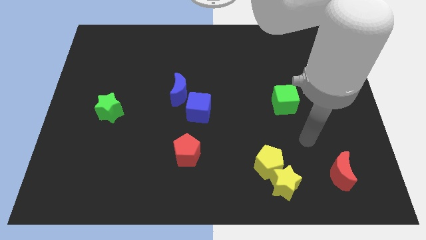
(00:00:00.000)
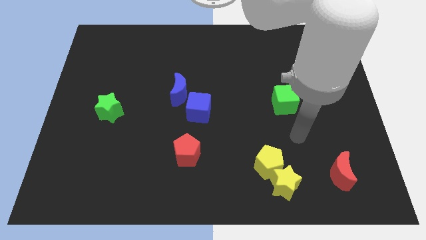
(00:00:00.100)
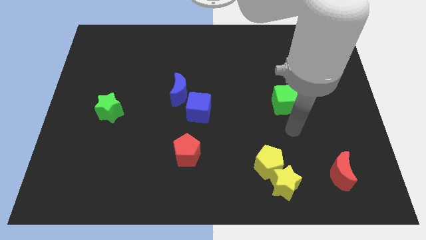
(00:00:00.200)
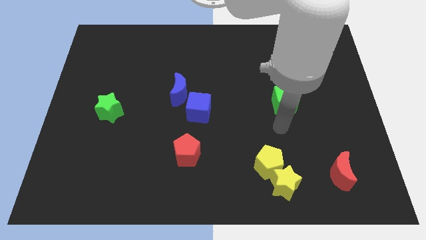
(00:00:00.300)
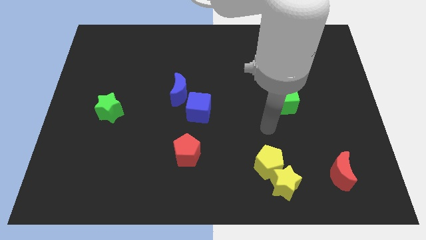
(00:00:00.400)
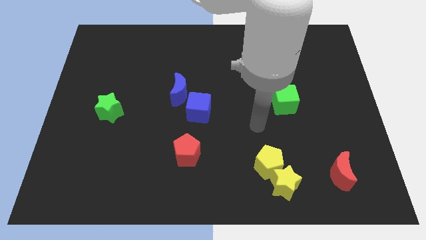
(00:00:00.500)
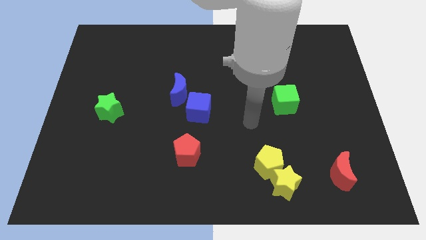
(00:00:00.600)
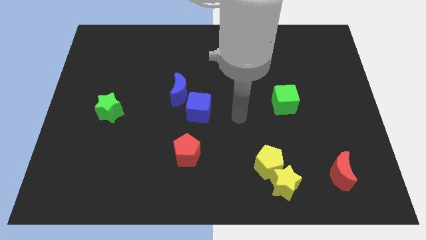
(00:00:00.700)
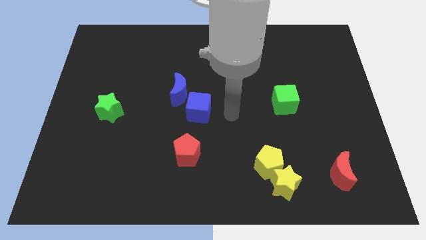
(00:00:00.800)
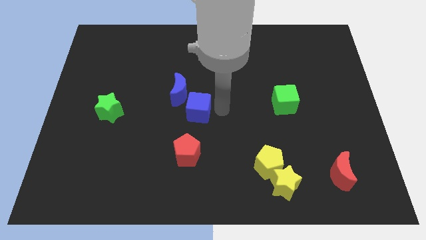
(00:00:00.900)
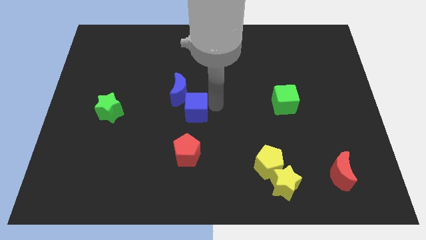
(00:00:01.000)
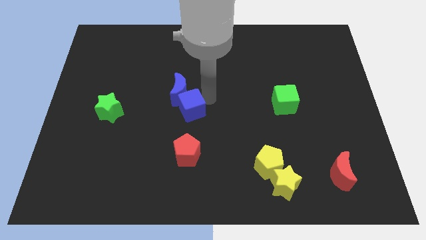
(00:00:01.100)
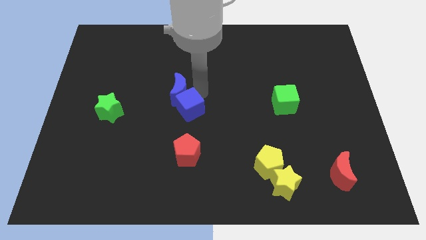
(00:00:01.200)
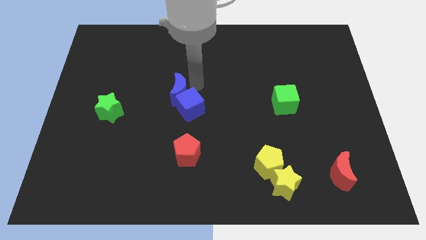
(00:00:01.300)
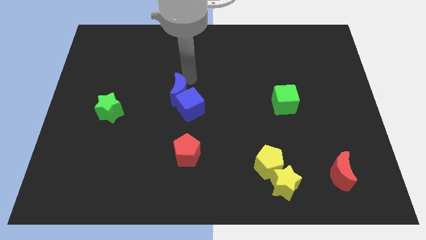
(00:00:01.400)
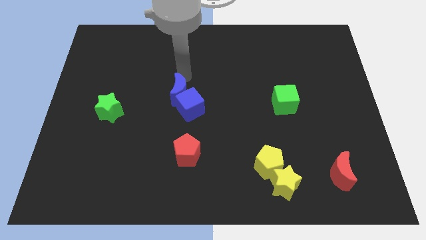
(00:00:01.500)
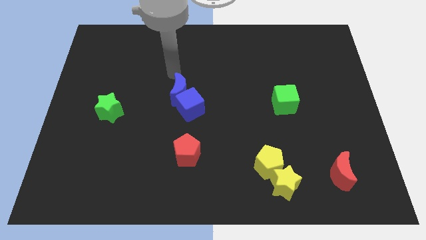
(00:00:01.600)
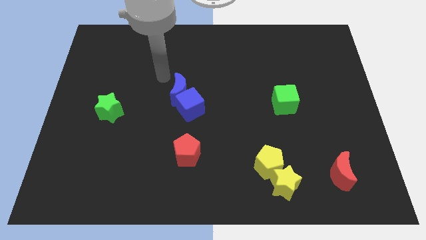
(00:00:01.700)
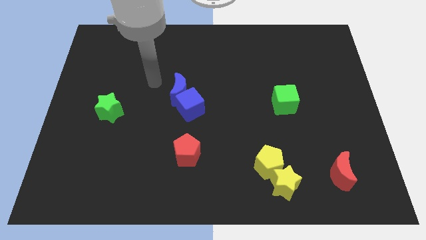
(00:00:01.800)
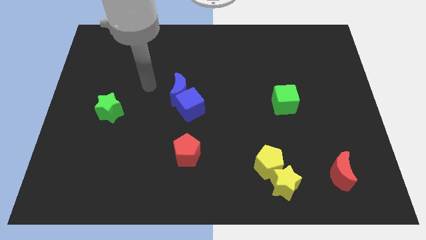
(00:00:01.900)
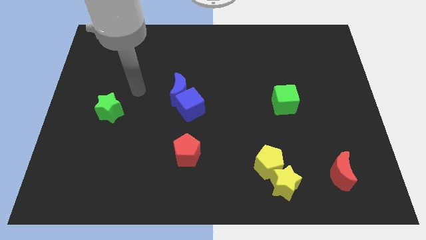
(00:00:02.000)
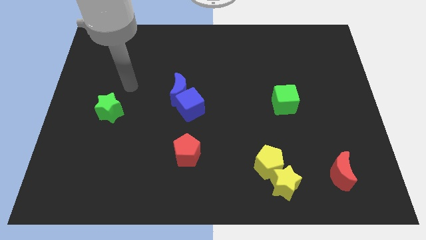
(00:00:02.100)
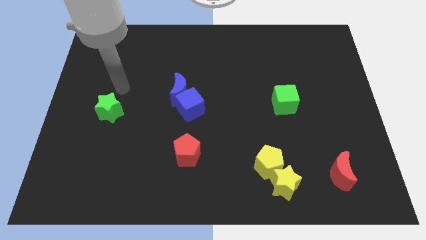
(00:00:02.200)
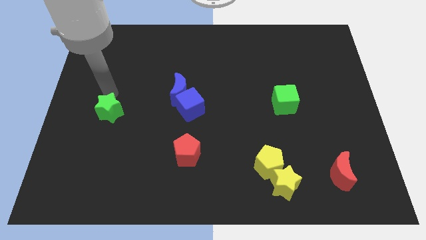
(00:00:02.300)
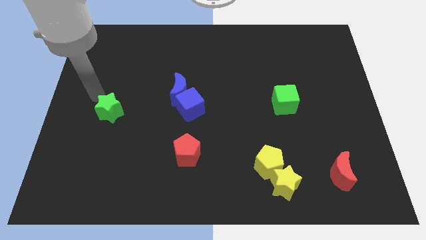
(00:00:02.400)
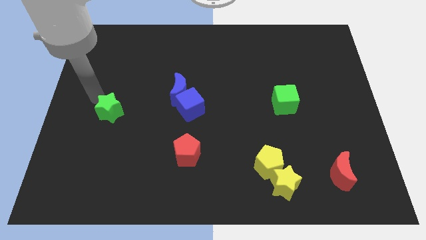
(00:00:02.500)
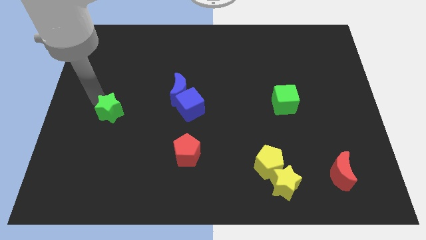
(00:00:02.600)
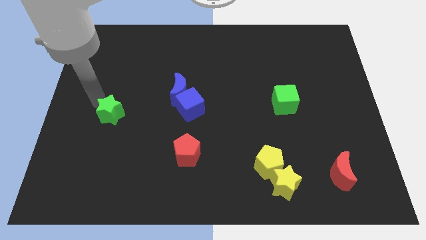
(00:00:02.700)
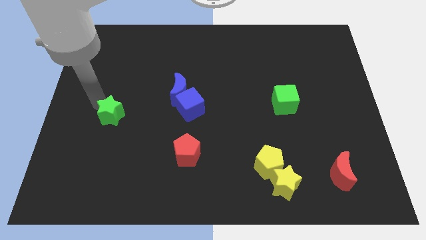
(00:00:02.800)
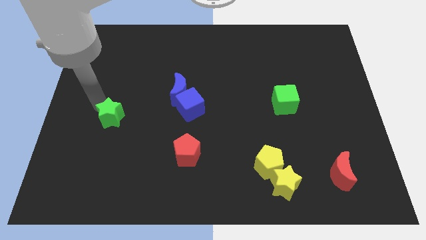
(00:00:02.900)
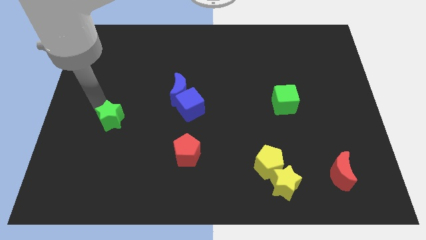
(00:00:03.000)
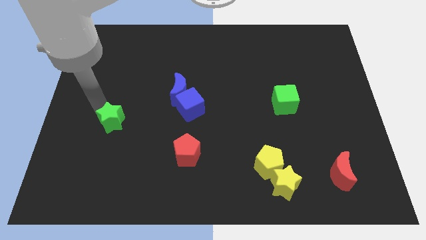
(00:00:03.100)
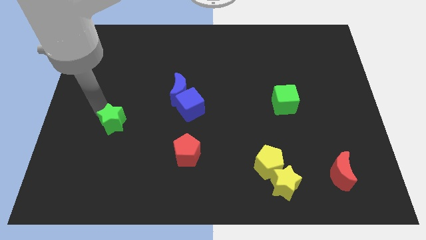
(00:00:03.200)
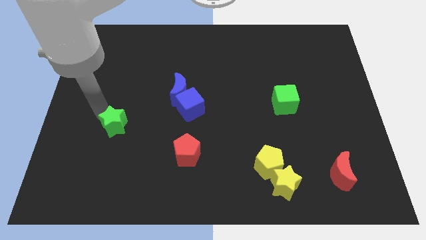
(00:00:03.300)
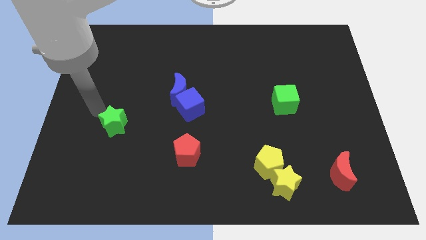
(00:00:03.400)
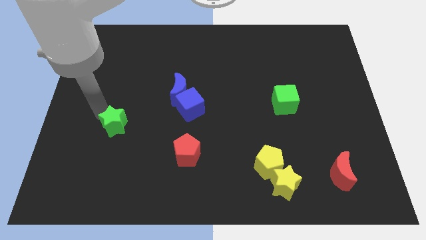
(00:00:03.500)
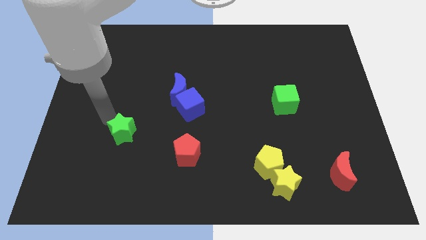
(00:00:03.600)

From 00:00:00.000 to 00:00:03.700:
slightly slide the green star downwards and to the right diagonally

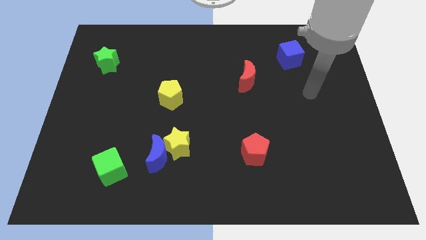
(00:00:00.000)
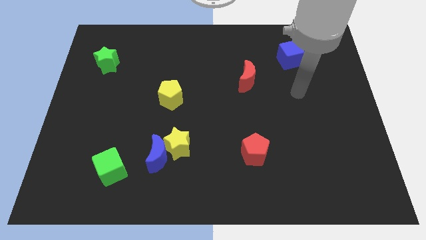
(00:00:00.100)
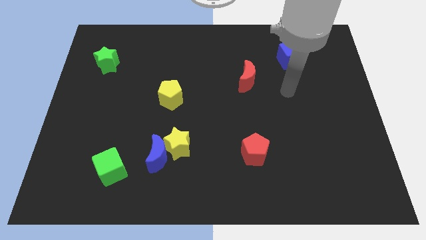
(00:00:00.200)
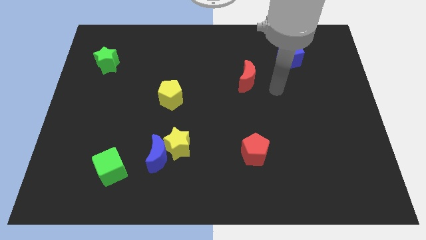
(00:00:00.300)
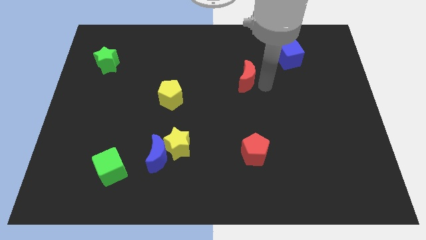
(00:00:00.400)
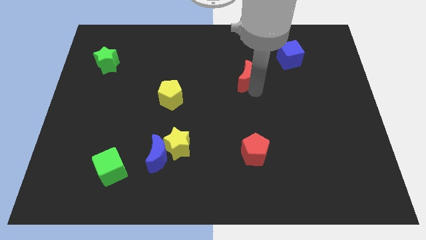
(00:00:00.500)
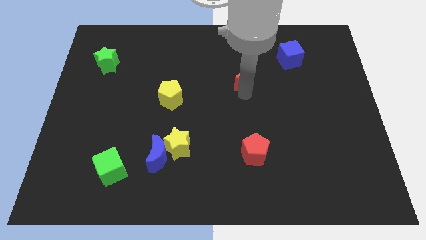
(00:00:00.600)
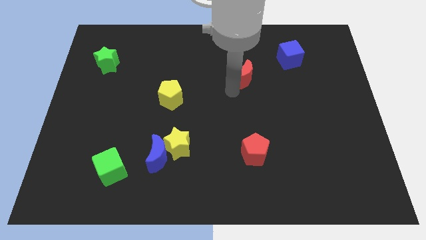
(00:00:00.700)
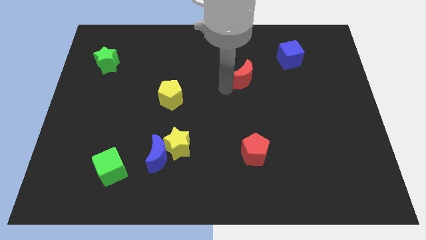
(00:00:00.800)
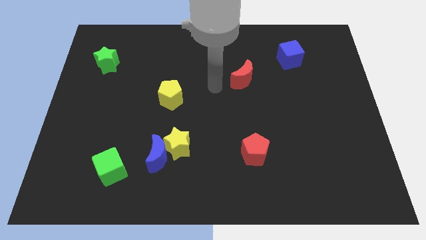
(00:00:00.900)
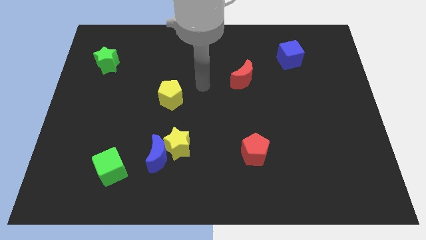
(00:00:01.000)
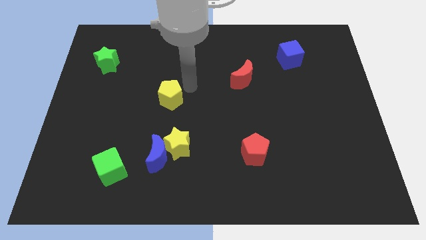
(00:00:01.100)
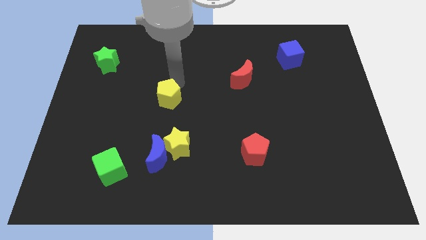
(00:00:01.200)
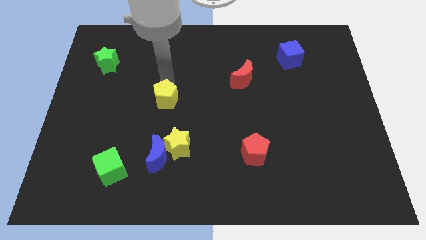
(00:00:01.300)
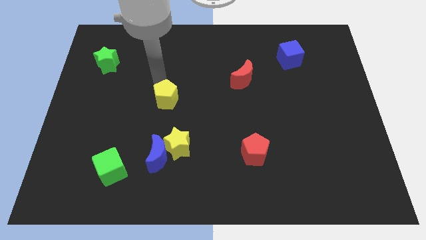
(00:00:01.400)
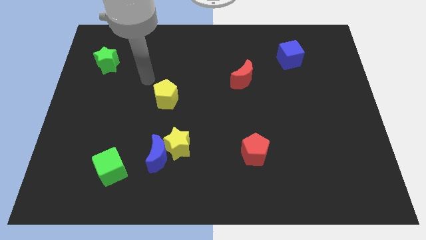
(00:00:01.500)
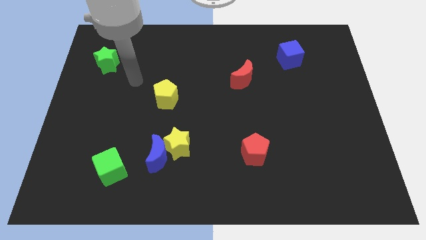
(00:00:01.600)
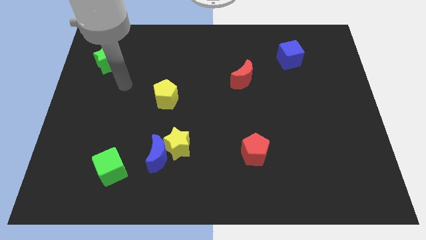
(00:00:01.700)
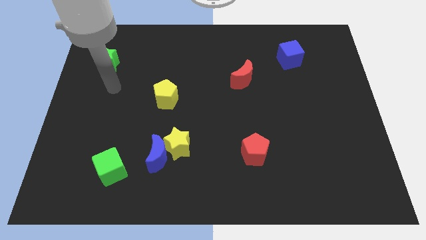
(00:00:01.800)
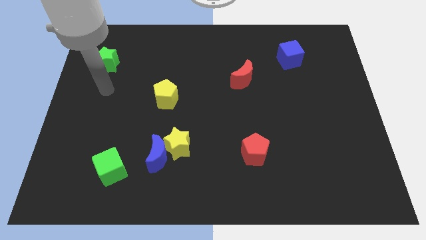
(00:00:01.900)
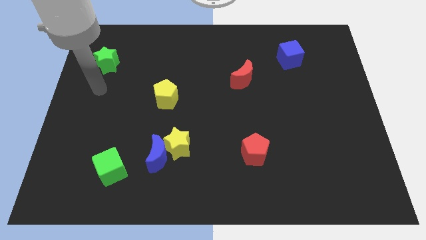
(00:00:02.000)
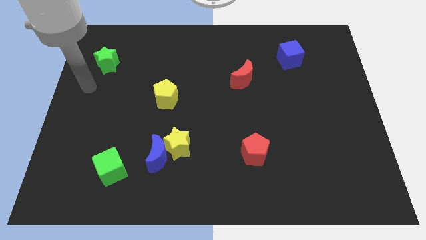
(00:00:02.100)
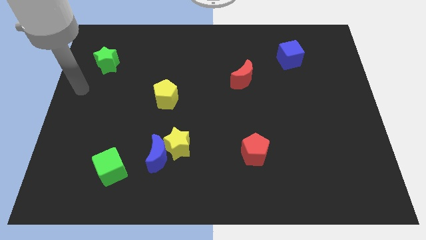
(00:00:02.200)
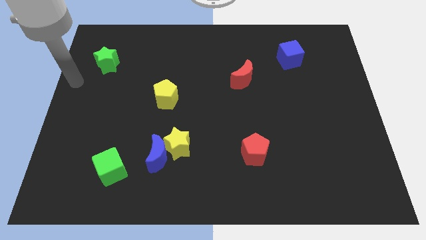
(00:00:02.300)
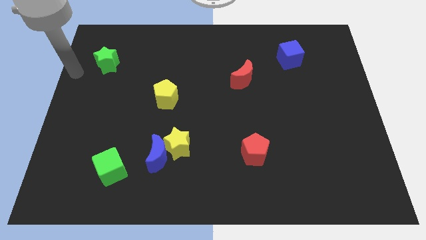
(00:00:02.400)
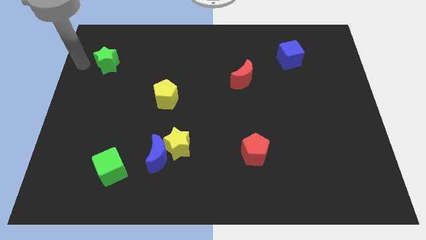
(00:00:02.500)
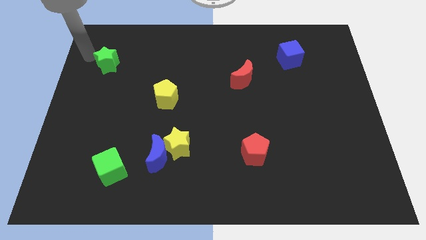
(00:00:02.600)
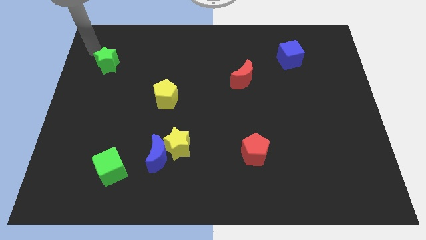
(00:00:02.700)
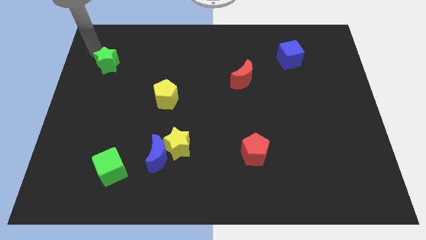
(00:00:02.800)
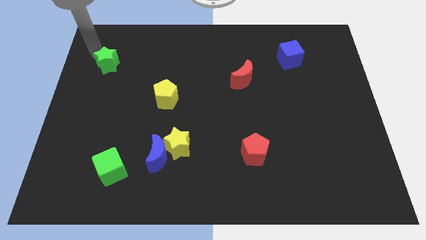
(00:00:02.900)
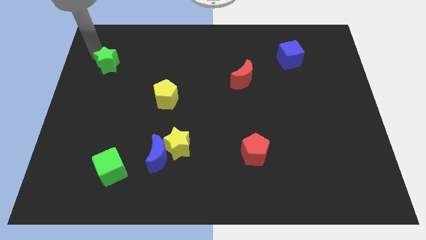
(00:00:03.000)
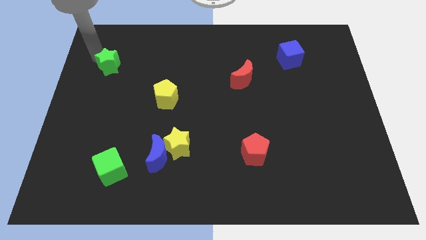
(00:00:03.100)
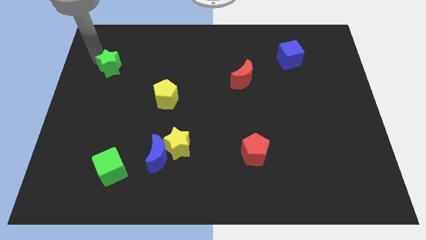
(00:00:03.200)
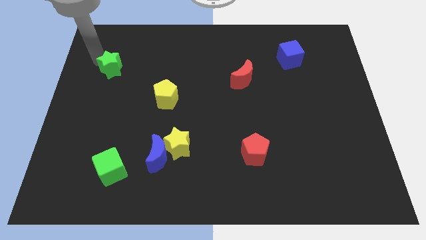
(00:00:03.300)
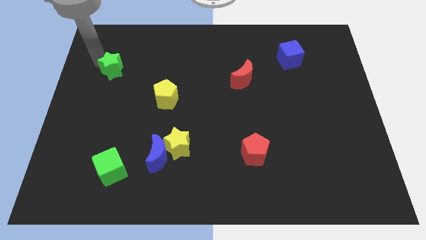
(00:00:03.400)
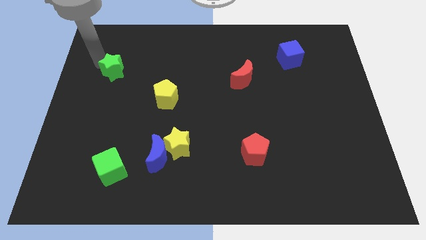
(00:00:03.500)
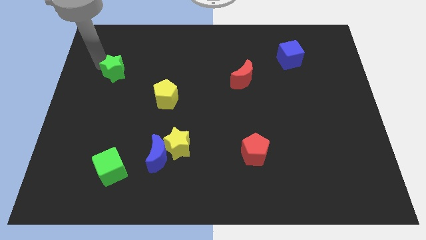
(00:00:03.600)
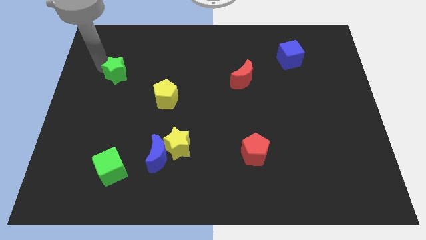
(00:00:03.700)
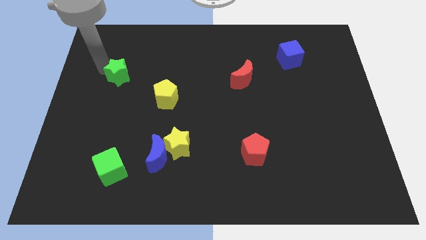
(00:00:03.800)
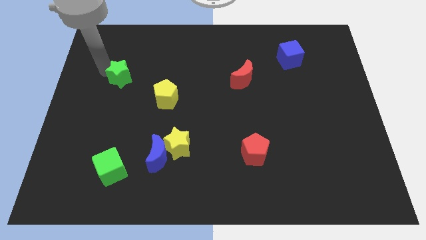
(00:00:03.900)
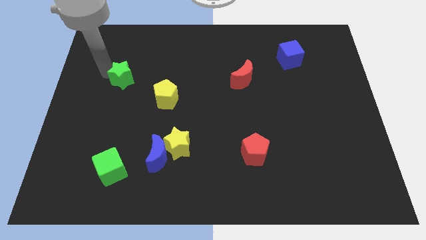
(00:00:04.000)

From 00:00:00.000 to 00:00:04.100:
slide the green star somewhat diagonally downwards and right

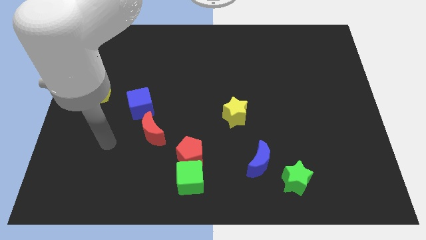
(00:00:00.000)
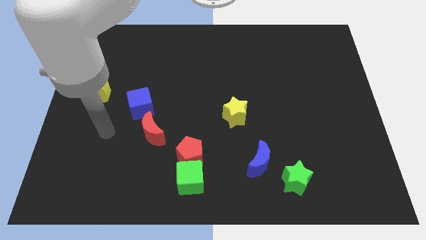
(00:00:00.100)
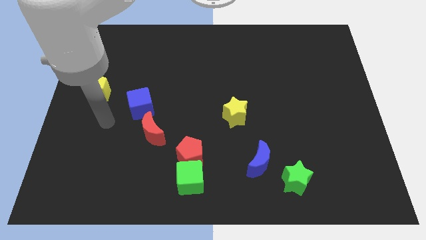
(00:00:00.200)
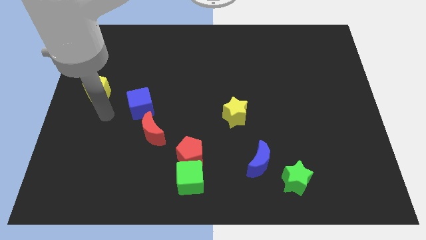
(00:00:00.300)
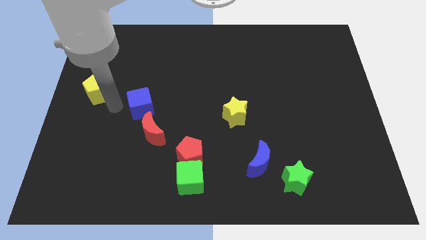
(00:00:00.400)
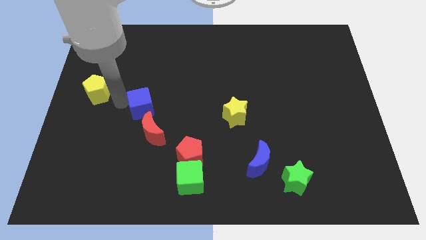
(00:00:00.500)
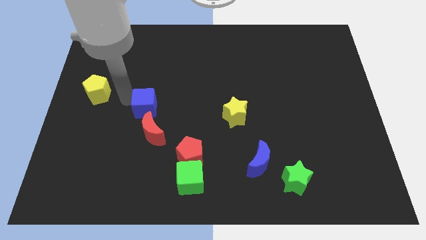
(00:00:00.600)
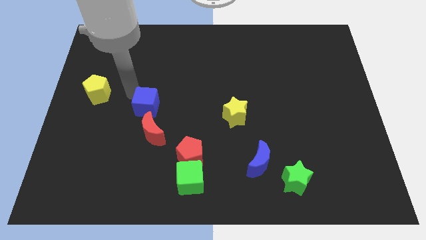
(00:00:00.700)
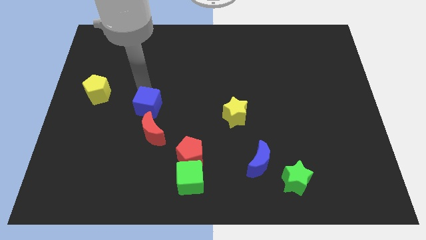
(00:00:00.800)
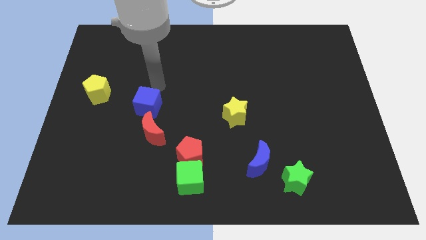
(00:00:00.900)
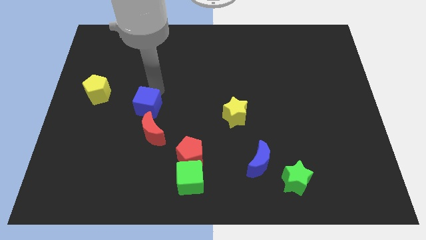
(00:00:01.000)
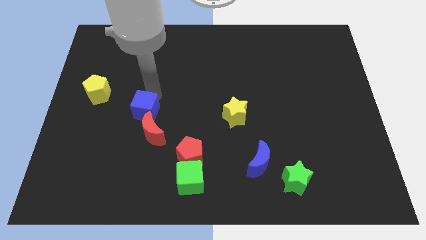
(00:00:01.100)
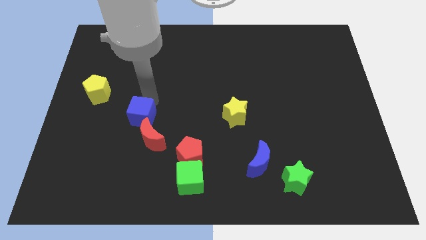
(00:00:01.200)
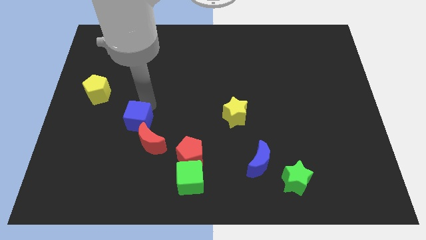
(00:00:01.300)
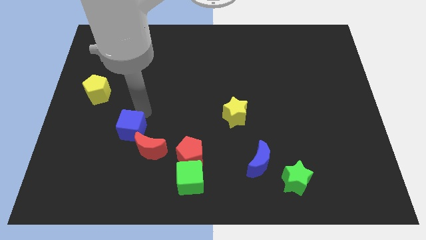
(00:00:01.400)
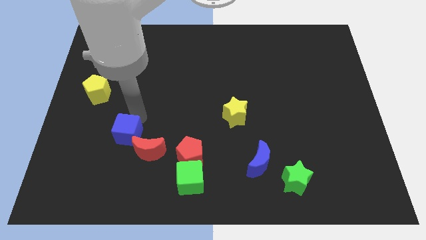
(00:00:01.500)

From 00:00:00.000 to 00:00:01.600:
slide the blue cube downwards a bit
